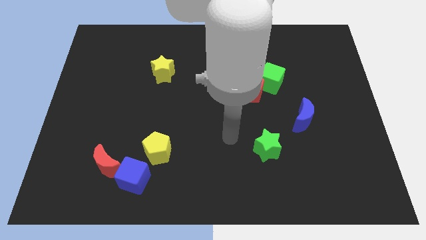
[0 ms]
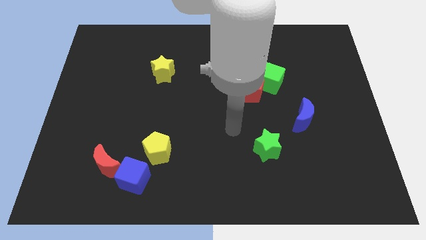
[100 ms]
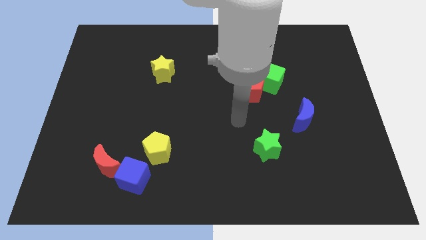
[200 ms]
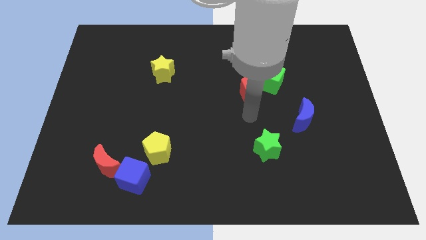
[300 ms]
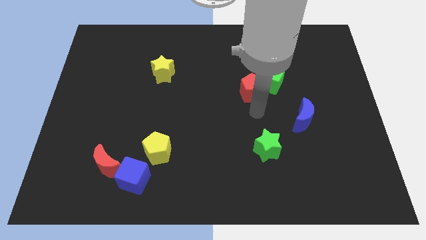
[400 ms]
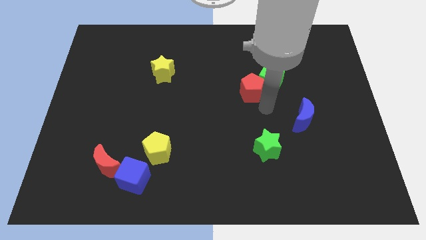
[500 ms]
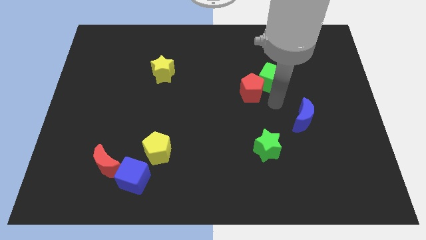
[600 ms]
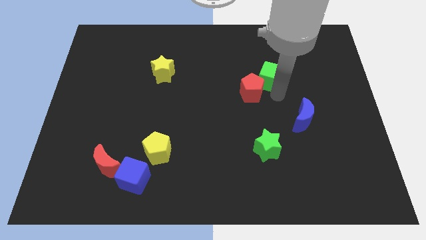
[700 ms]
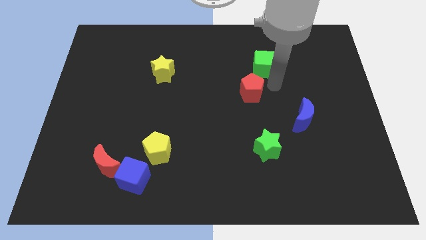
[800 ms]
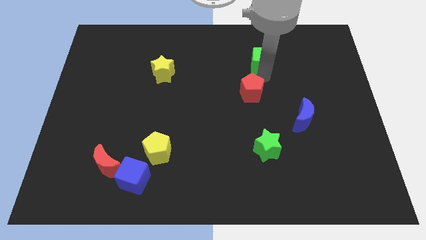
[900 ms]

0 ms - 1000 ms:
separate the red pentagon from the green cube

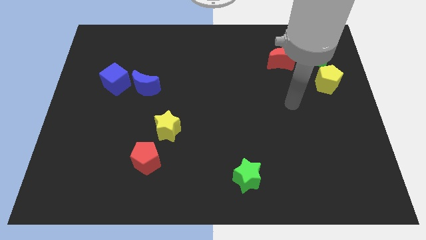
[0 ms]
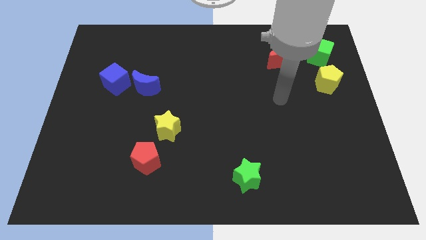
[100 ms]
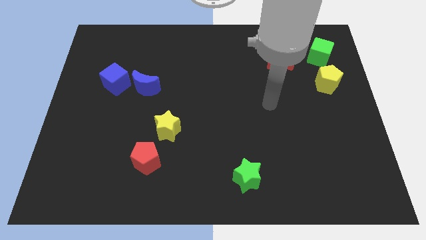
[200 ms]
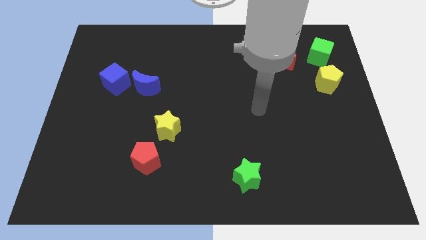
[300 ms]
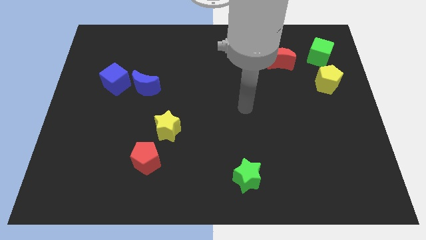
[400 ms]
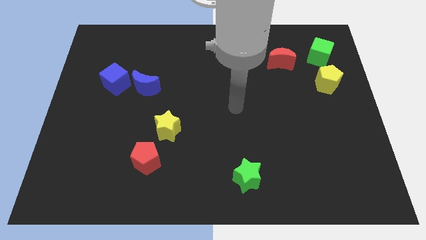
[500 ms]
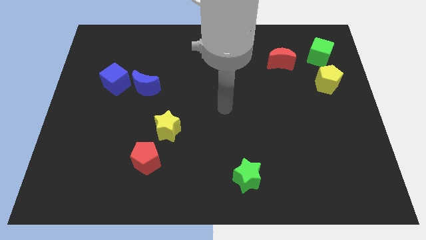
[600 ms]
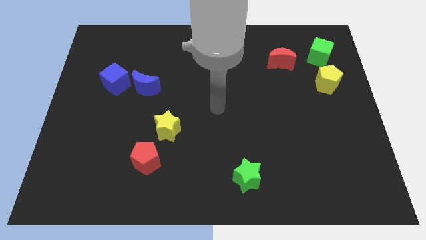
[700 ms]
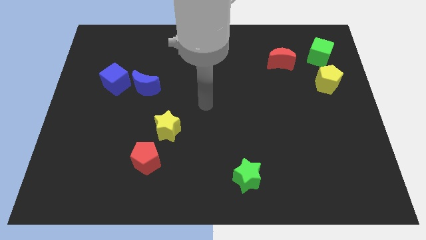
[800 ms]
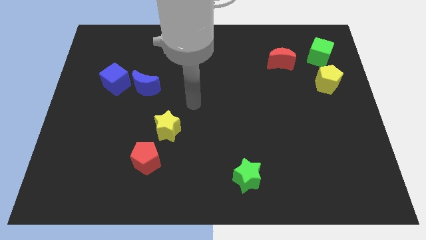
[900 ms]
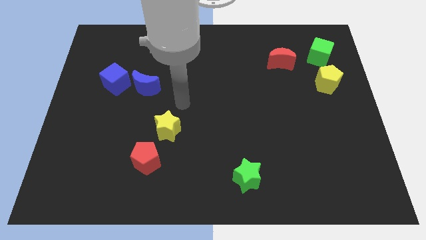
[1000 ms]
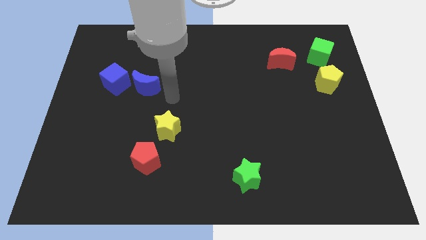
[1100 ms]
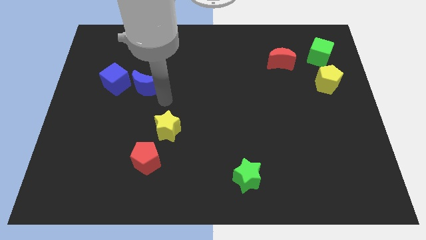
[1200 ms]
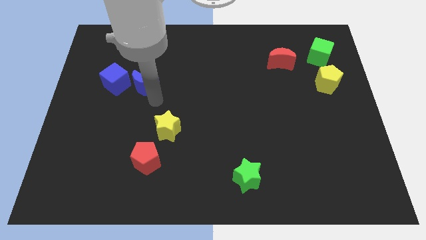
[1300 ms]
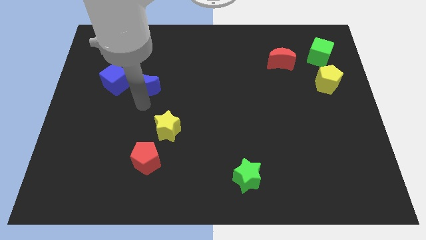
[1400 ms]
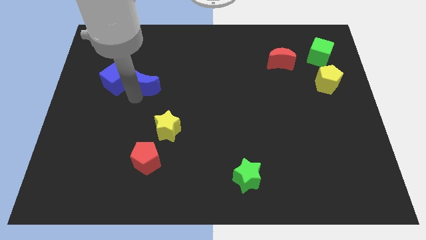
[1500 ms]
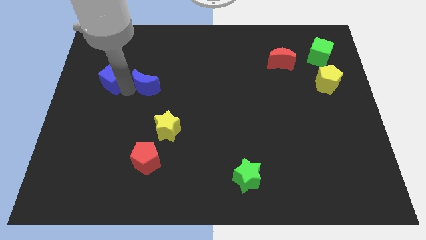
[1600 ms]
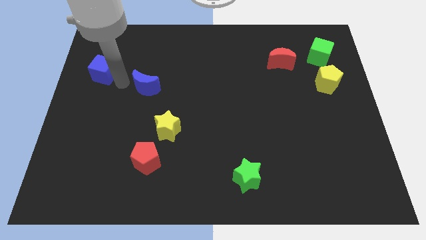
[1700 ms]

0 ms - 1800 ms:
pull the blue moon apart from the blue cube

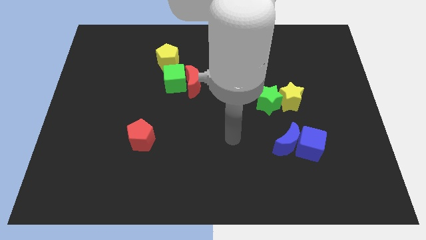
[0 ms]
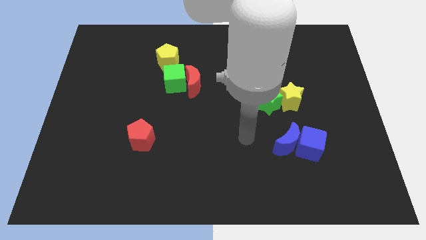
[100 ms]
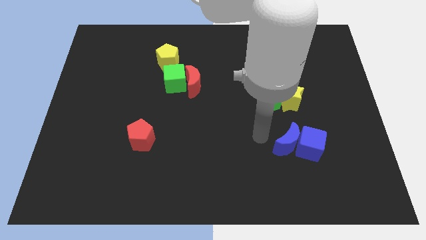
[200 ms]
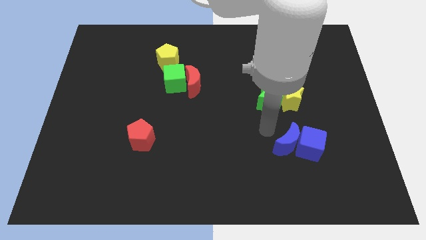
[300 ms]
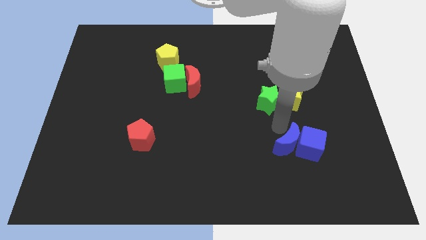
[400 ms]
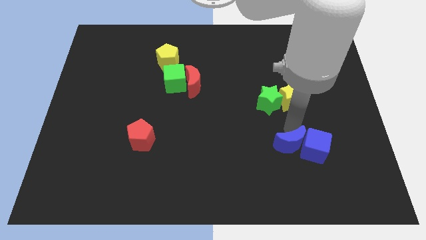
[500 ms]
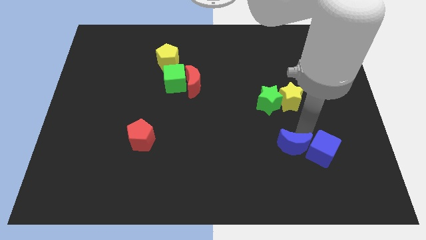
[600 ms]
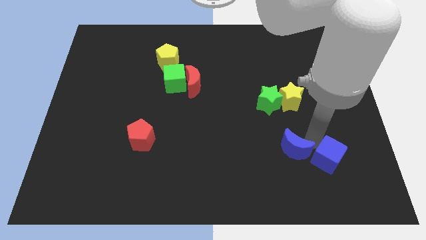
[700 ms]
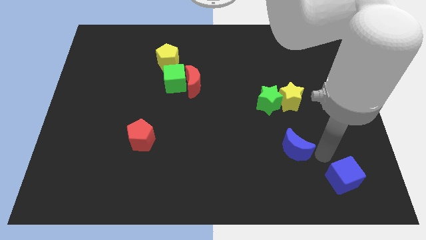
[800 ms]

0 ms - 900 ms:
separate the blue moon from the blue cube

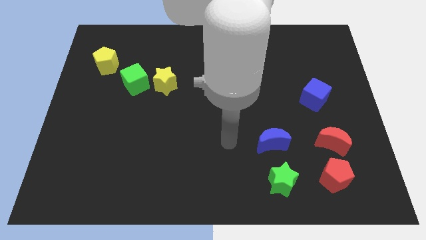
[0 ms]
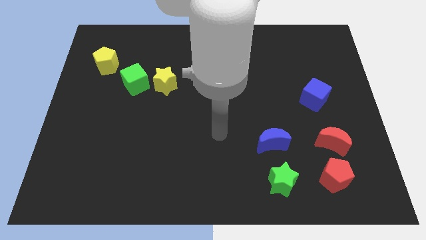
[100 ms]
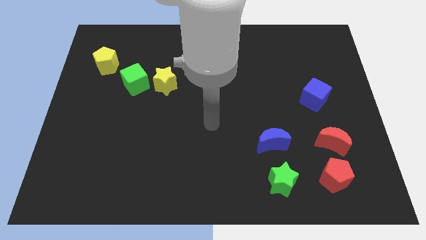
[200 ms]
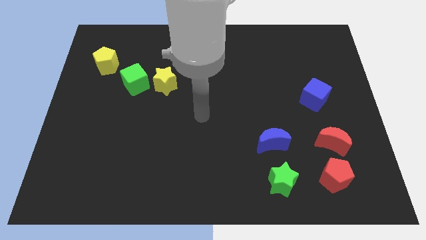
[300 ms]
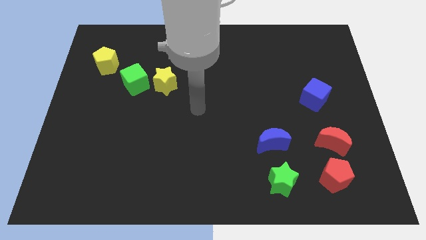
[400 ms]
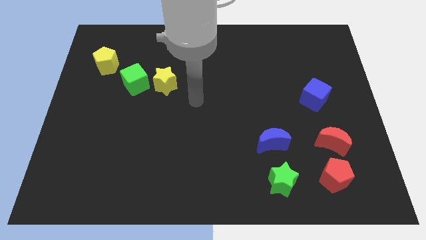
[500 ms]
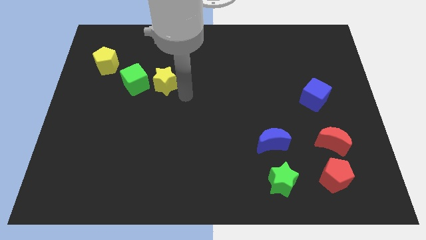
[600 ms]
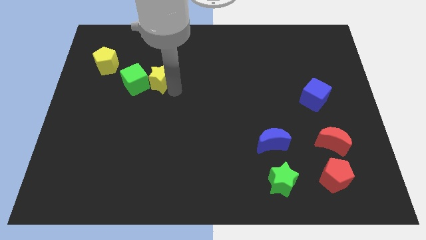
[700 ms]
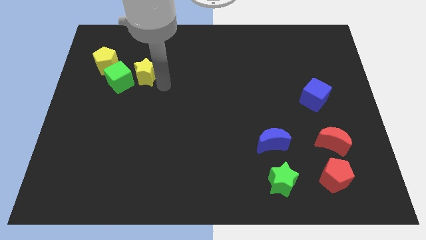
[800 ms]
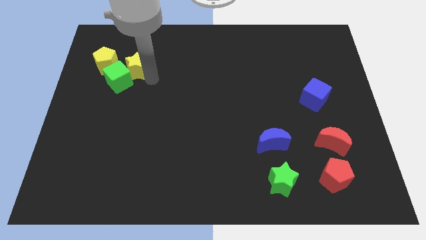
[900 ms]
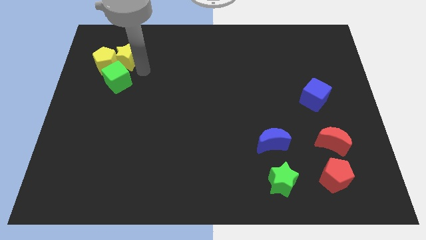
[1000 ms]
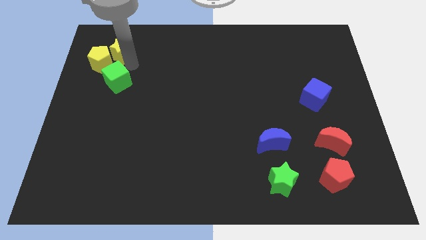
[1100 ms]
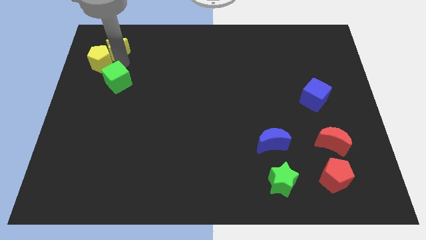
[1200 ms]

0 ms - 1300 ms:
pull the green cube apart from the yellow star

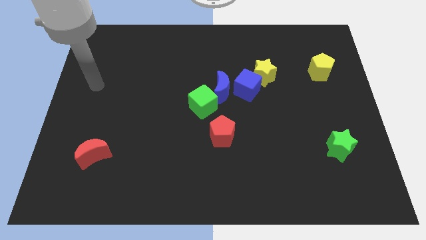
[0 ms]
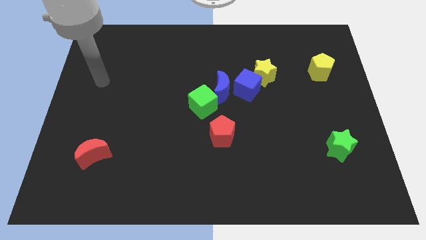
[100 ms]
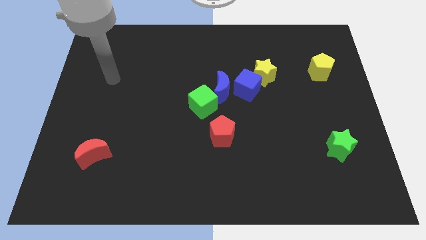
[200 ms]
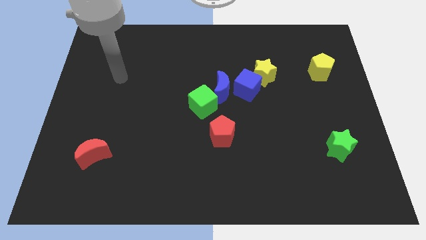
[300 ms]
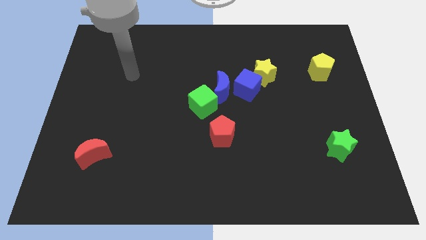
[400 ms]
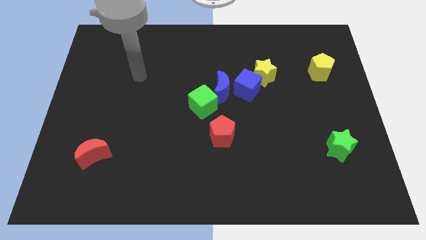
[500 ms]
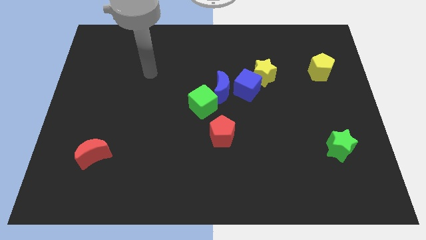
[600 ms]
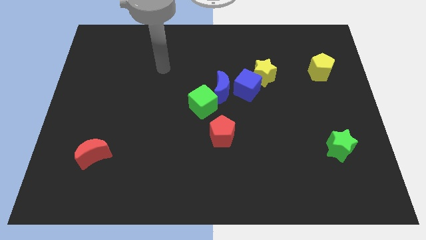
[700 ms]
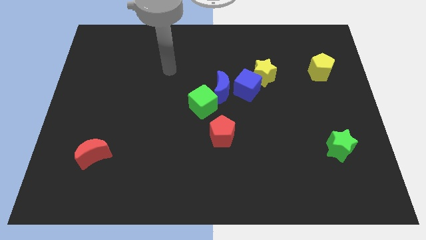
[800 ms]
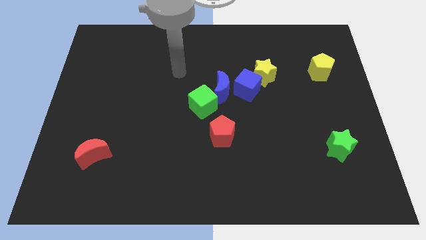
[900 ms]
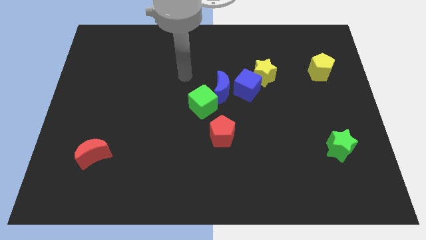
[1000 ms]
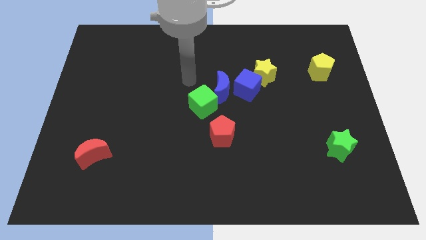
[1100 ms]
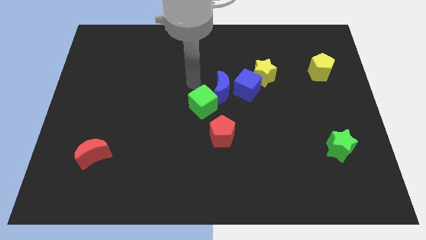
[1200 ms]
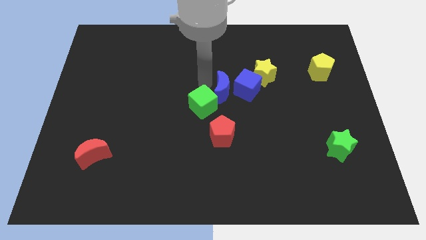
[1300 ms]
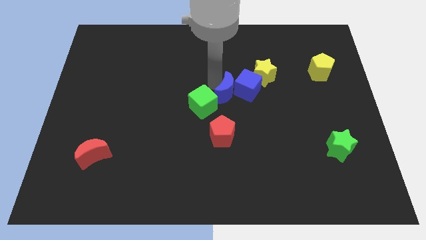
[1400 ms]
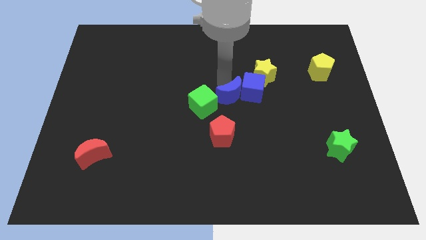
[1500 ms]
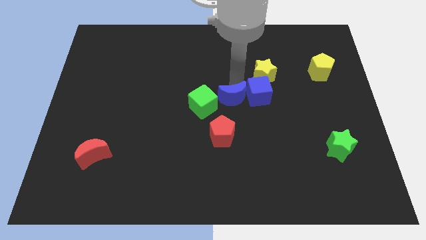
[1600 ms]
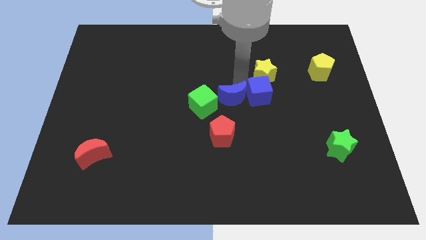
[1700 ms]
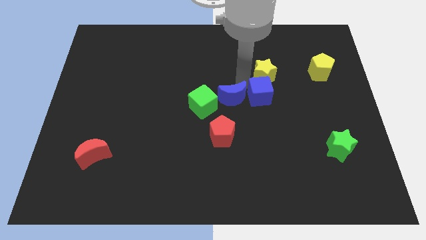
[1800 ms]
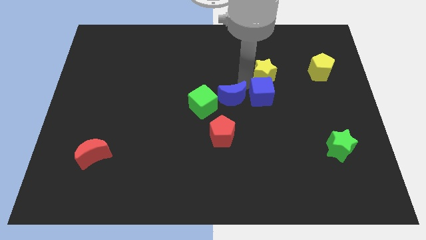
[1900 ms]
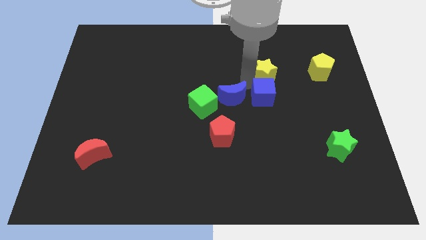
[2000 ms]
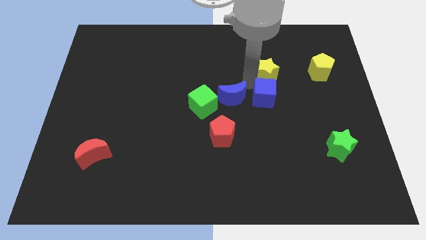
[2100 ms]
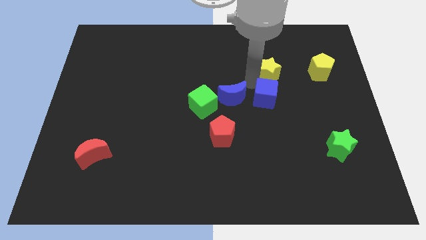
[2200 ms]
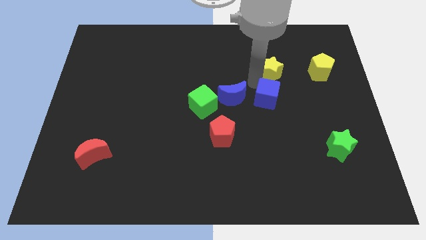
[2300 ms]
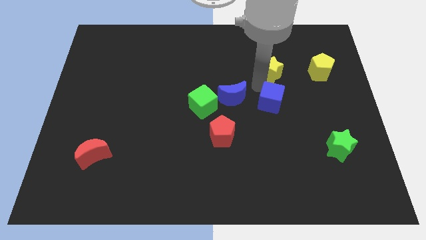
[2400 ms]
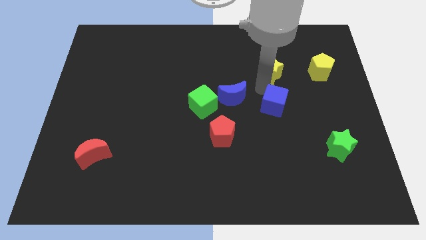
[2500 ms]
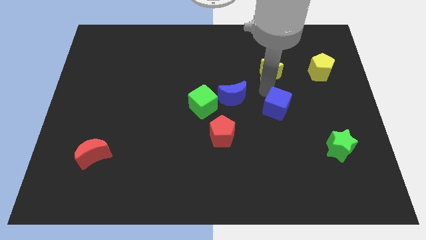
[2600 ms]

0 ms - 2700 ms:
pull the yellow star apart from the blue cube

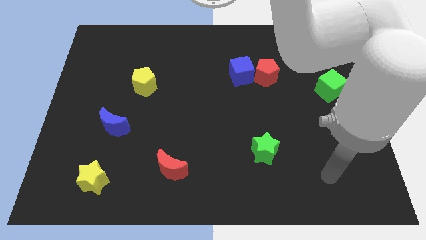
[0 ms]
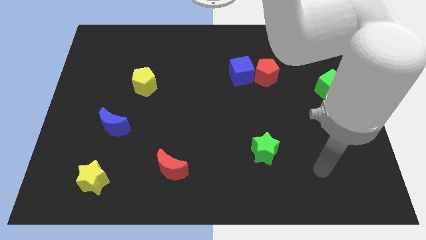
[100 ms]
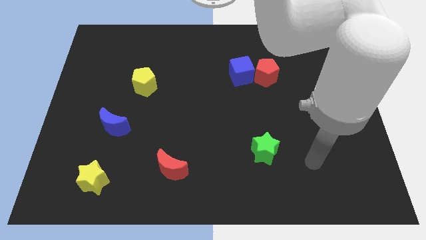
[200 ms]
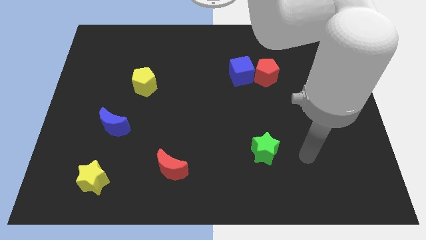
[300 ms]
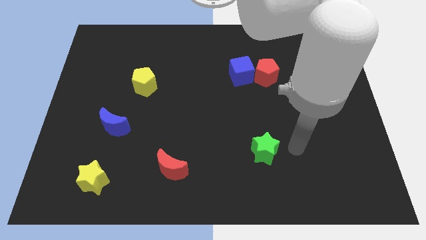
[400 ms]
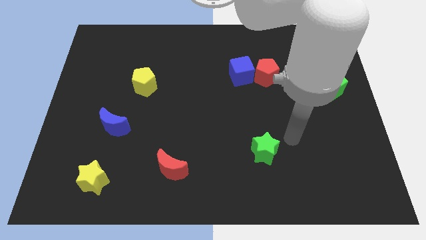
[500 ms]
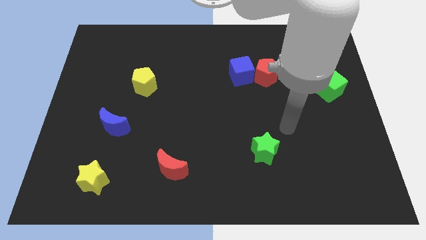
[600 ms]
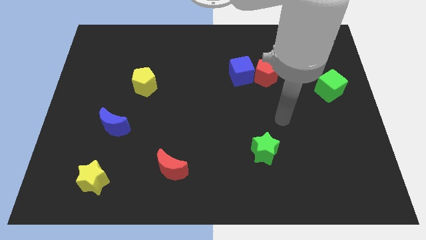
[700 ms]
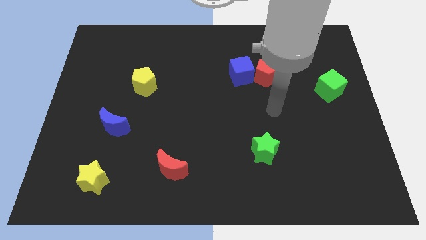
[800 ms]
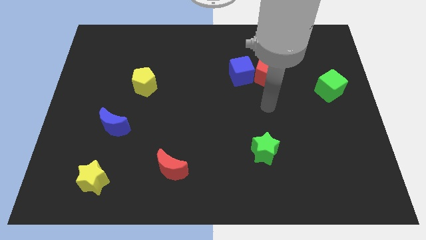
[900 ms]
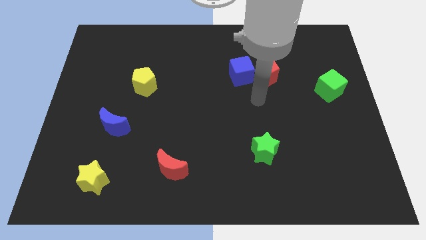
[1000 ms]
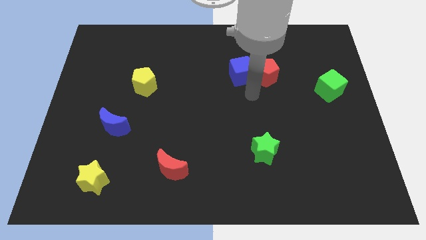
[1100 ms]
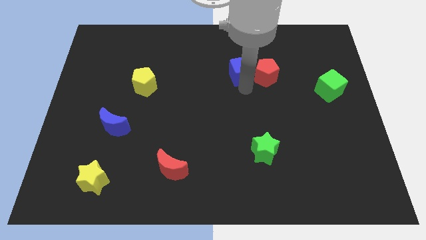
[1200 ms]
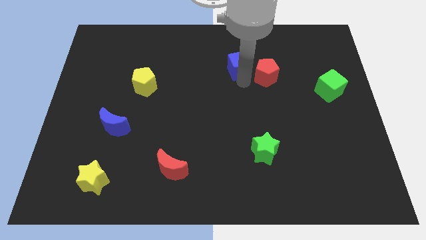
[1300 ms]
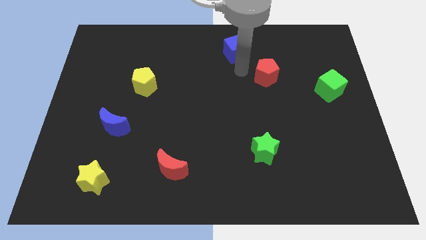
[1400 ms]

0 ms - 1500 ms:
move the red pentagon away from the blue cube

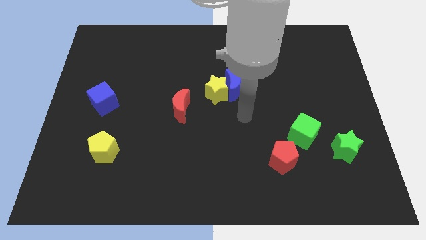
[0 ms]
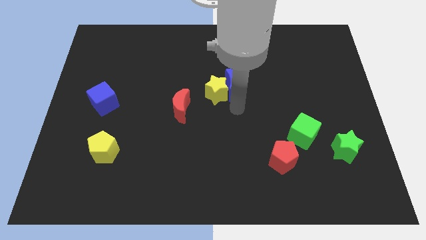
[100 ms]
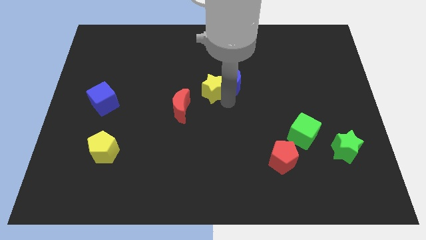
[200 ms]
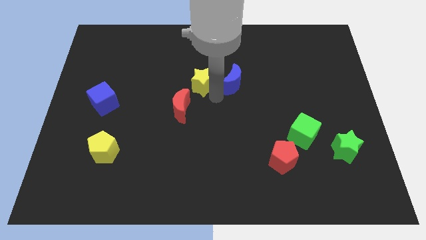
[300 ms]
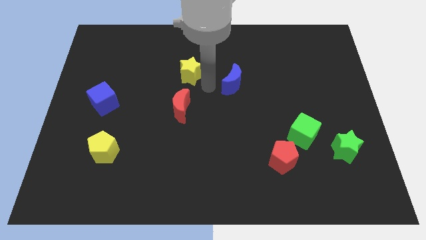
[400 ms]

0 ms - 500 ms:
pull the blue moon apart from the yellow star
